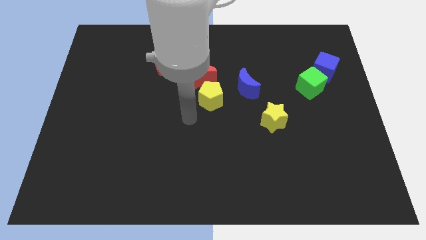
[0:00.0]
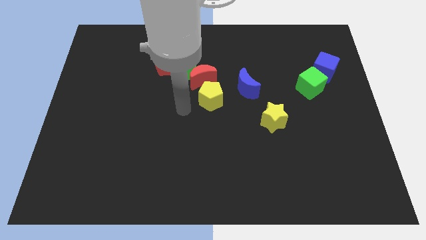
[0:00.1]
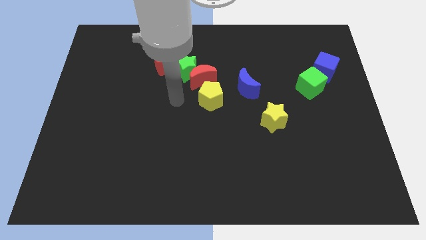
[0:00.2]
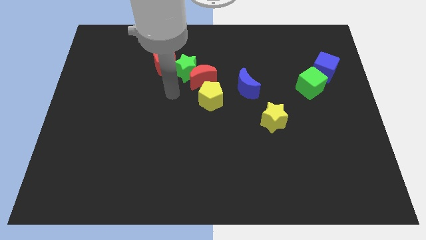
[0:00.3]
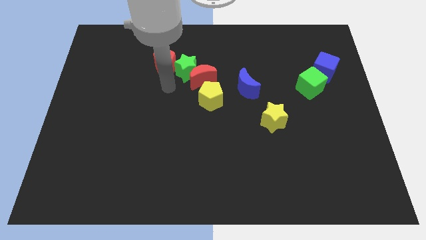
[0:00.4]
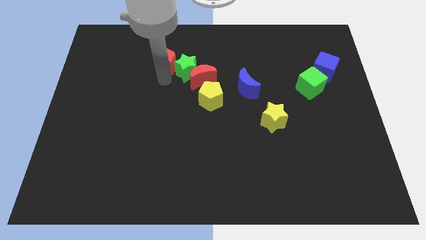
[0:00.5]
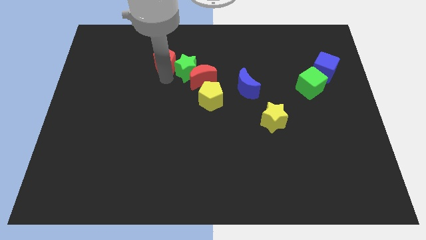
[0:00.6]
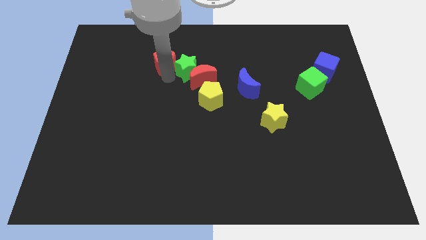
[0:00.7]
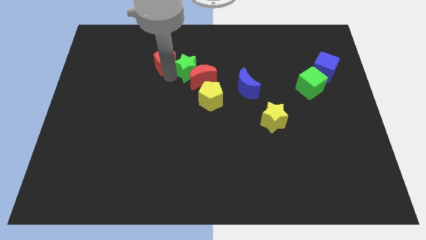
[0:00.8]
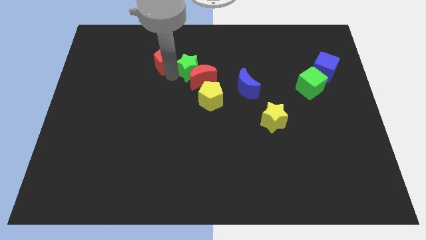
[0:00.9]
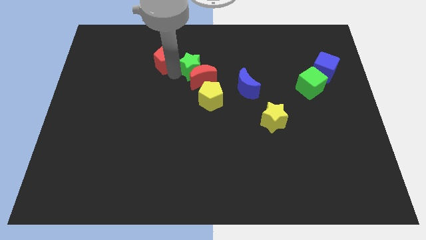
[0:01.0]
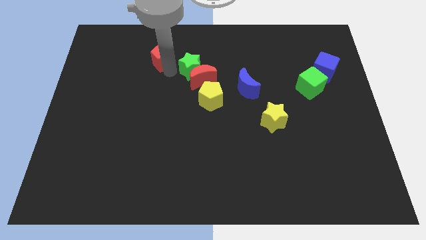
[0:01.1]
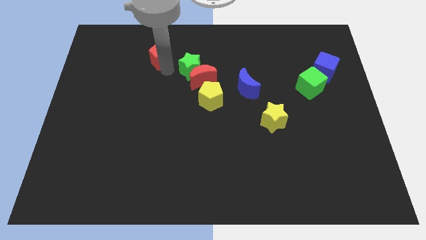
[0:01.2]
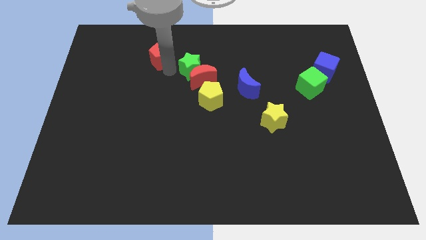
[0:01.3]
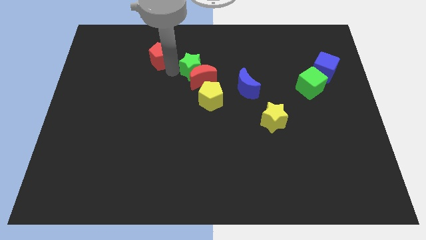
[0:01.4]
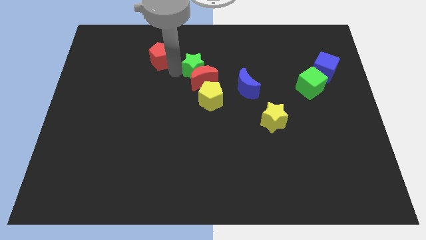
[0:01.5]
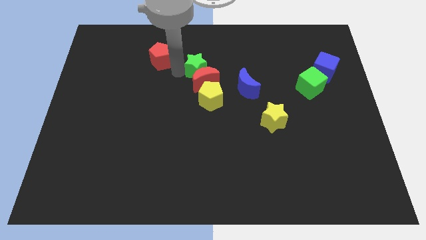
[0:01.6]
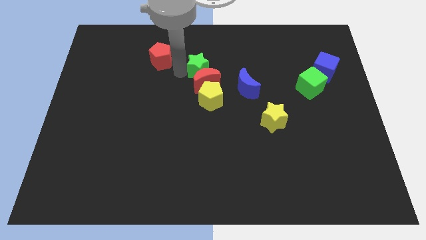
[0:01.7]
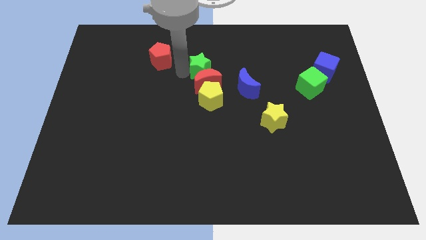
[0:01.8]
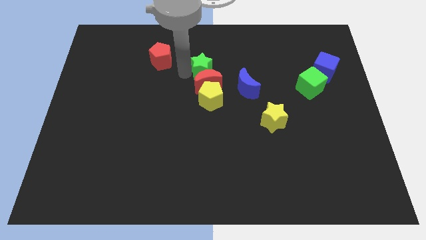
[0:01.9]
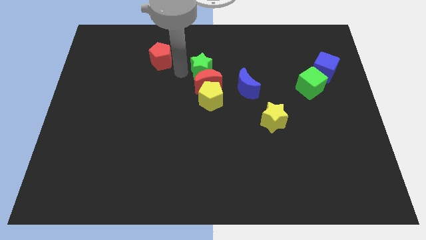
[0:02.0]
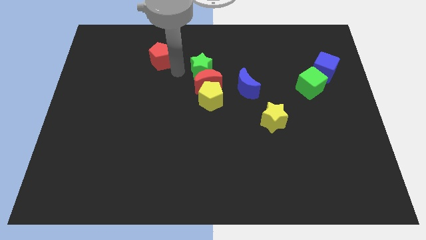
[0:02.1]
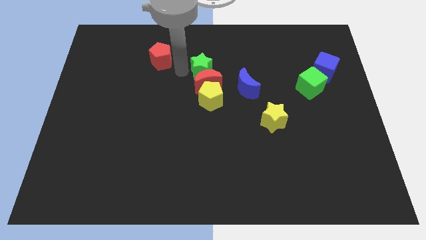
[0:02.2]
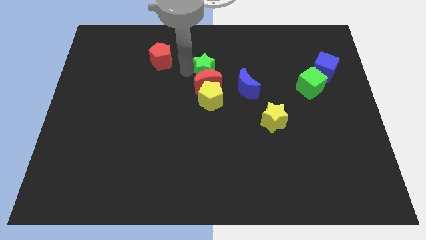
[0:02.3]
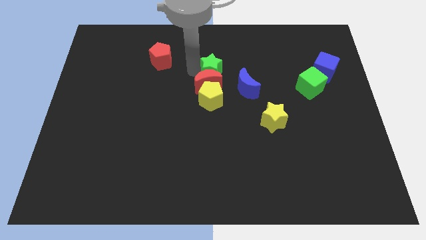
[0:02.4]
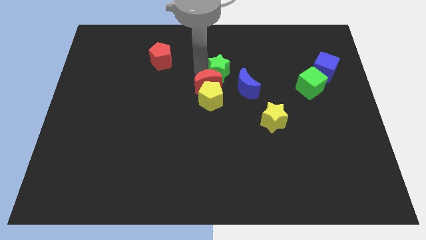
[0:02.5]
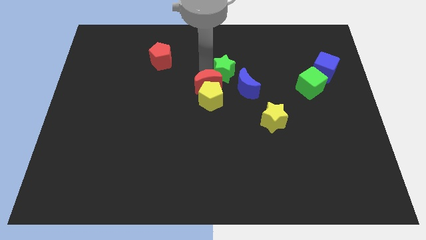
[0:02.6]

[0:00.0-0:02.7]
pull the green star apart from the red moon and red pentagon

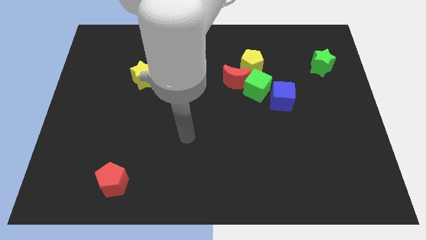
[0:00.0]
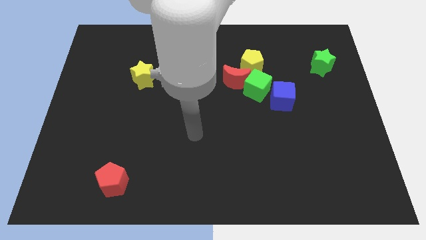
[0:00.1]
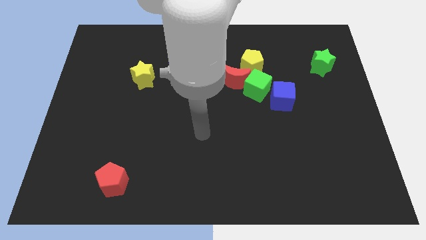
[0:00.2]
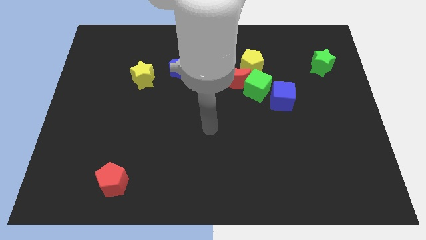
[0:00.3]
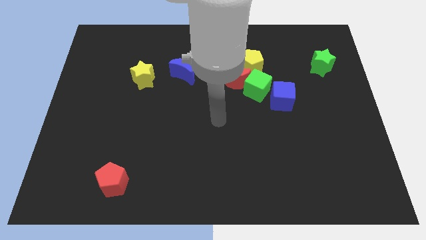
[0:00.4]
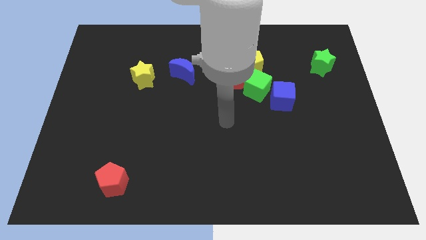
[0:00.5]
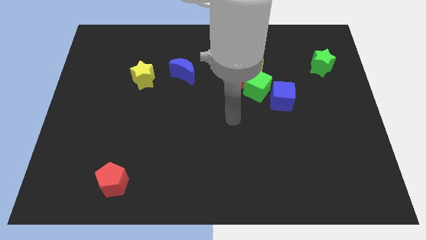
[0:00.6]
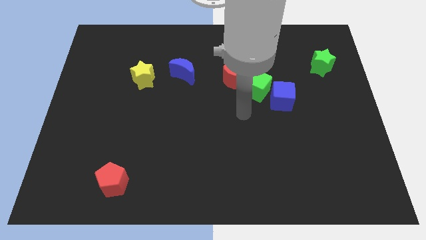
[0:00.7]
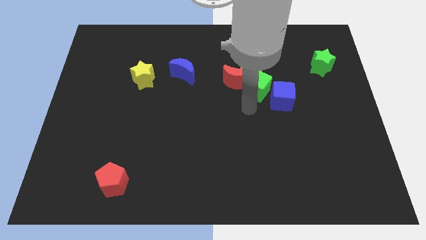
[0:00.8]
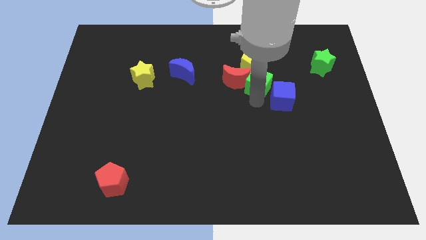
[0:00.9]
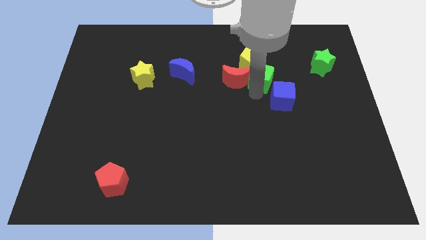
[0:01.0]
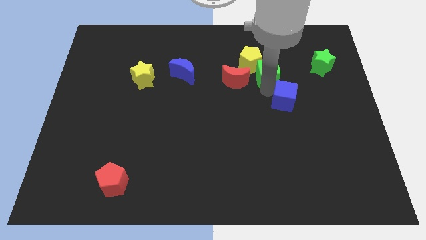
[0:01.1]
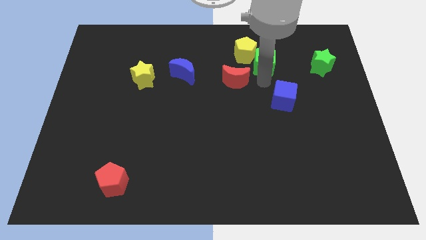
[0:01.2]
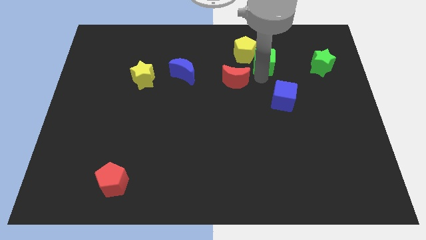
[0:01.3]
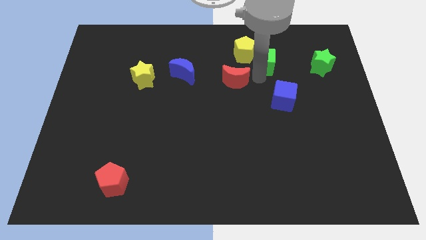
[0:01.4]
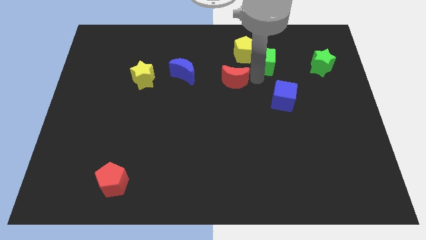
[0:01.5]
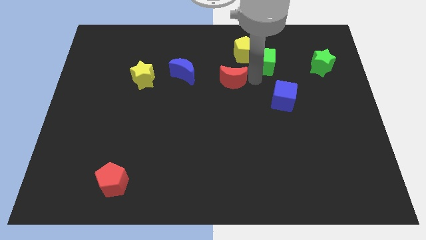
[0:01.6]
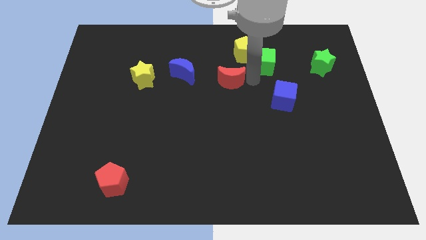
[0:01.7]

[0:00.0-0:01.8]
separate the red moon from the green cube and yellow pentagon

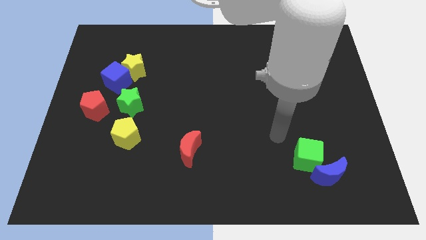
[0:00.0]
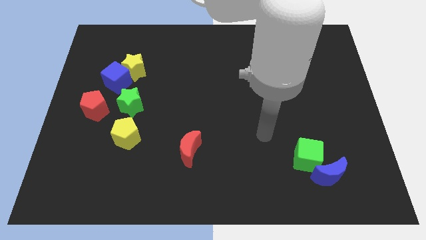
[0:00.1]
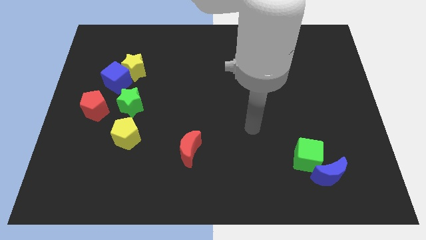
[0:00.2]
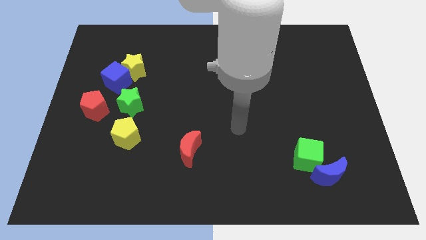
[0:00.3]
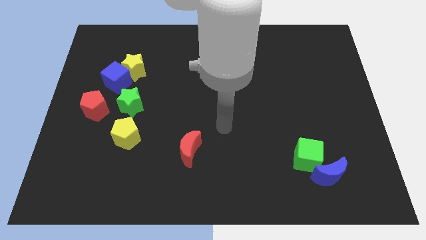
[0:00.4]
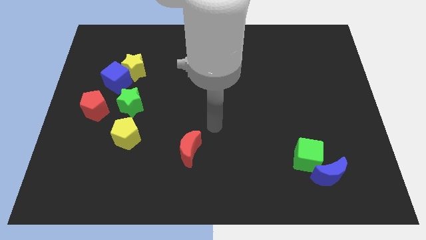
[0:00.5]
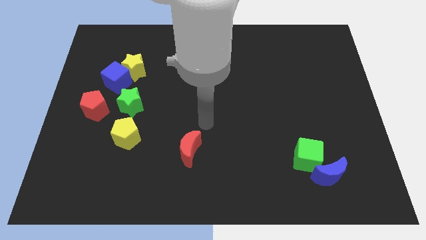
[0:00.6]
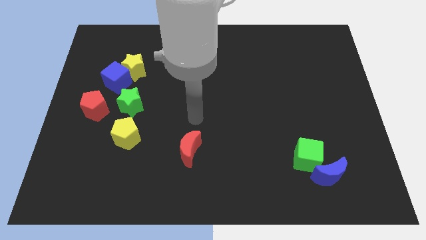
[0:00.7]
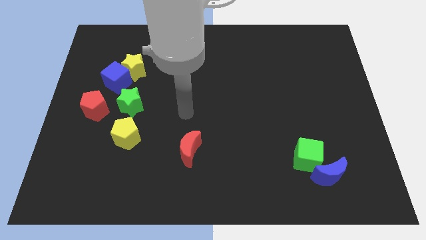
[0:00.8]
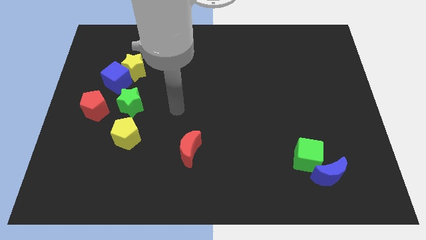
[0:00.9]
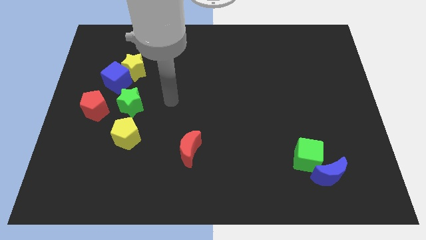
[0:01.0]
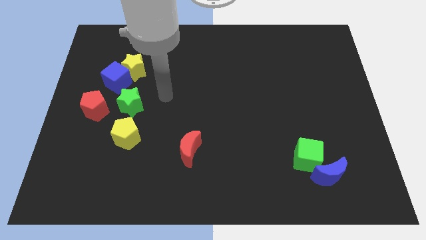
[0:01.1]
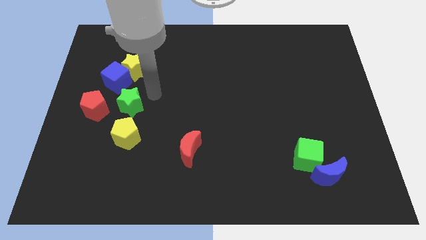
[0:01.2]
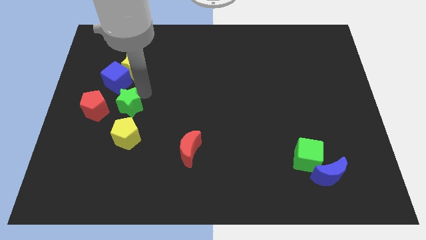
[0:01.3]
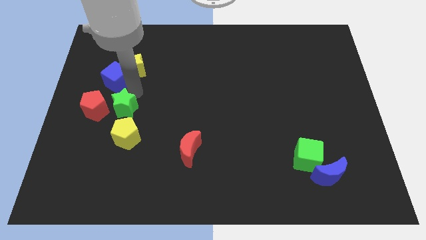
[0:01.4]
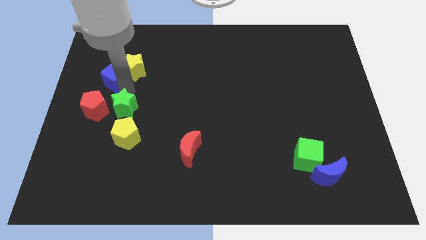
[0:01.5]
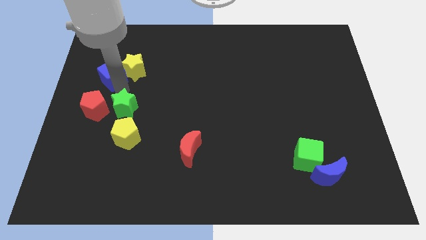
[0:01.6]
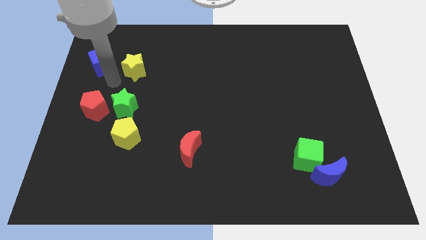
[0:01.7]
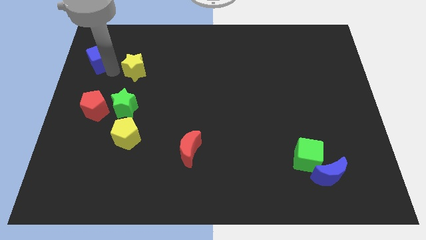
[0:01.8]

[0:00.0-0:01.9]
move the yellow star away from the blue cube

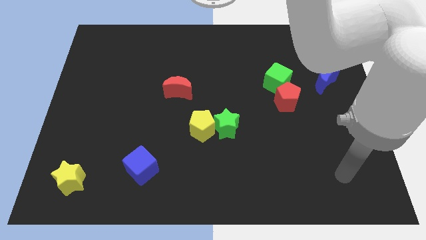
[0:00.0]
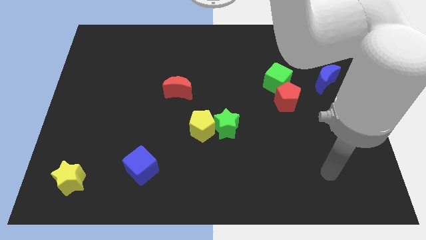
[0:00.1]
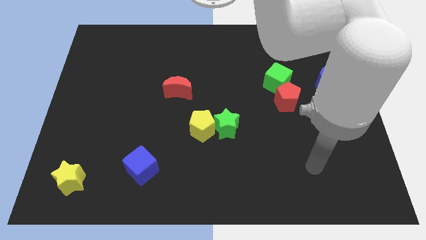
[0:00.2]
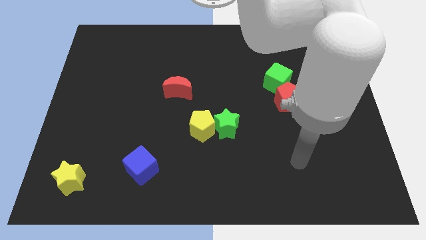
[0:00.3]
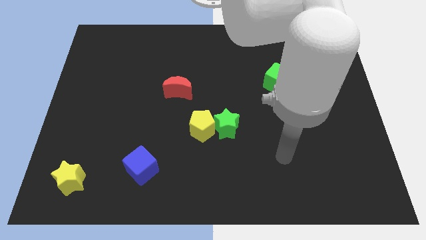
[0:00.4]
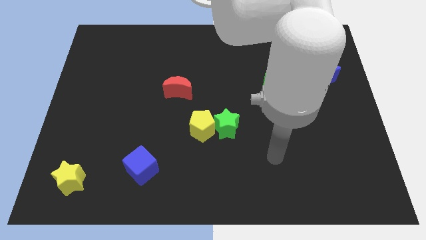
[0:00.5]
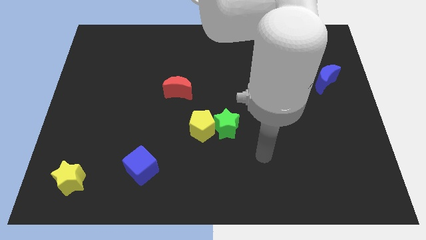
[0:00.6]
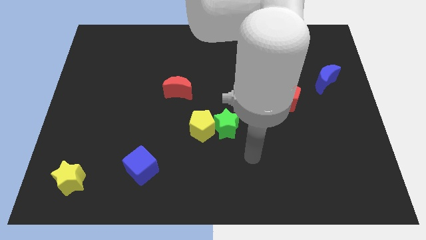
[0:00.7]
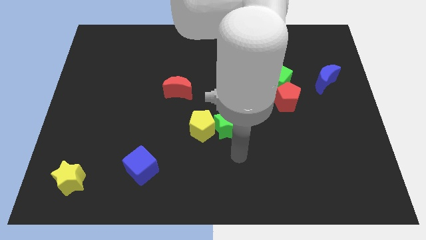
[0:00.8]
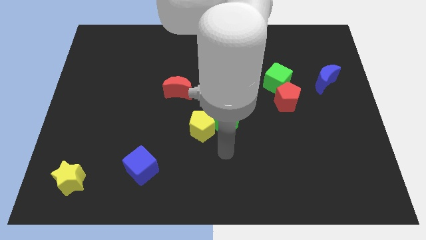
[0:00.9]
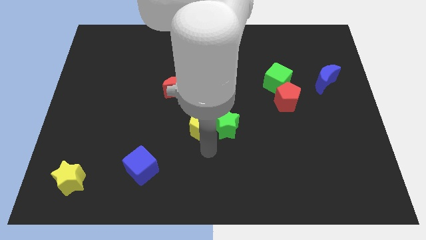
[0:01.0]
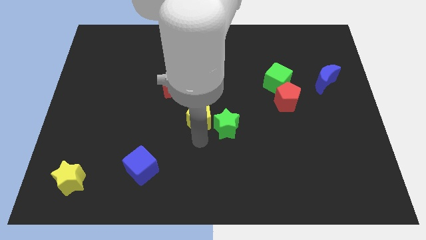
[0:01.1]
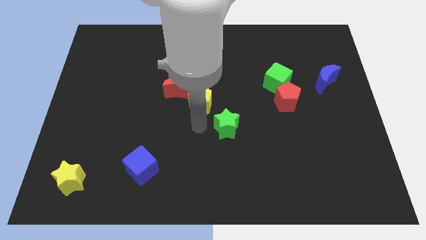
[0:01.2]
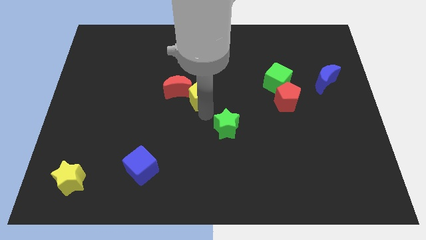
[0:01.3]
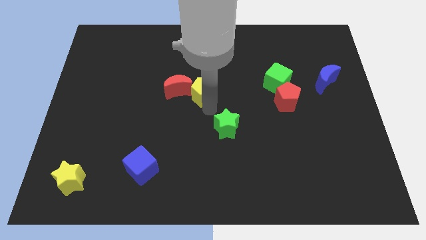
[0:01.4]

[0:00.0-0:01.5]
pull the green star apart from the yellow pentagon

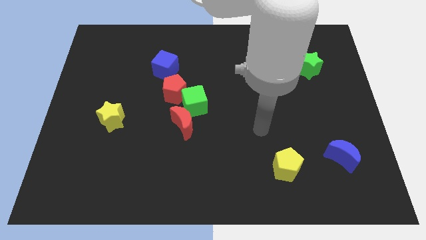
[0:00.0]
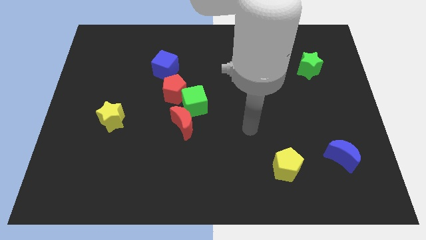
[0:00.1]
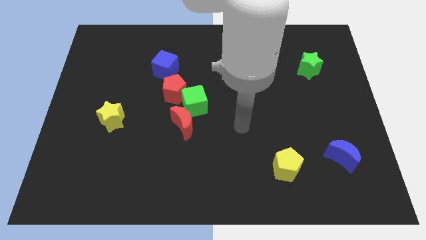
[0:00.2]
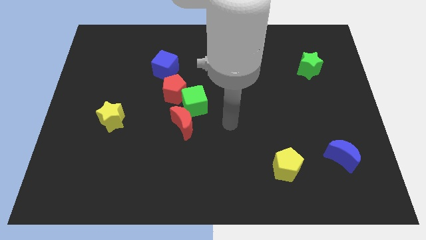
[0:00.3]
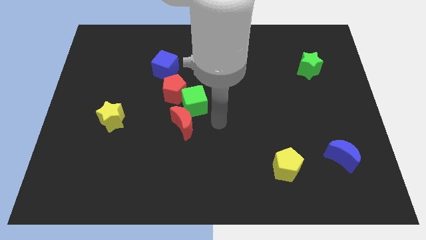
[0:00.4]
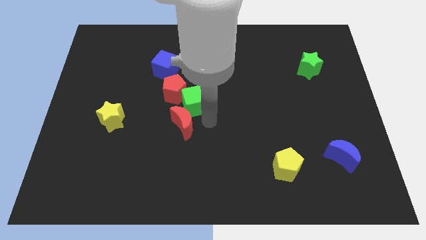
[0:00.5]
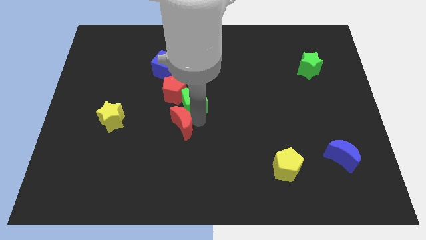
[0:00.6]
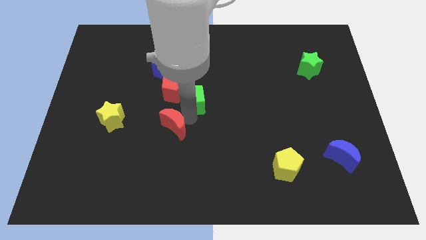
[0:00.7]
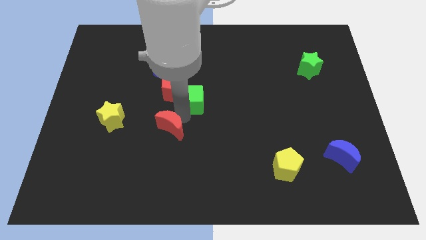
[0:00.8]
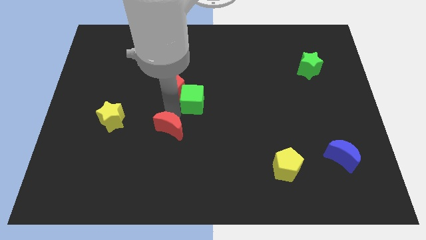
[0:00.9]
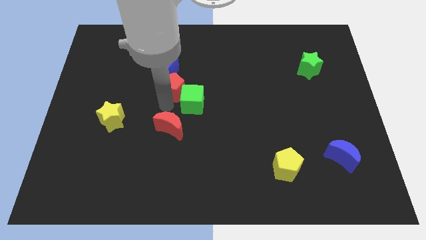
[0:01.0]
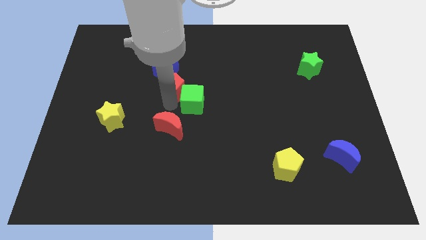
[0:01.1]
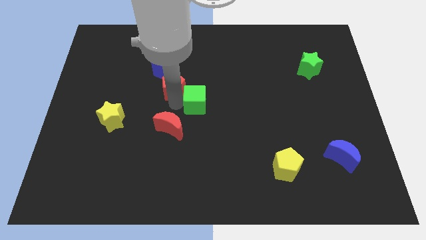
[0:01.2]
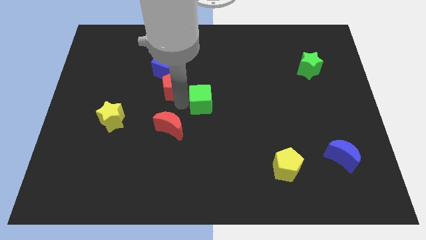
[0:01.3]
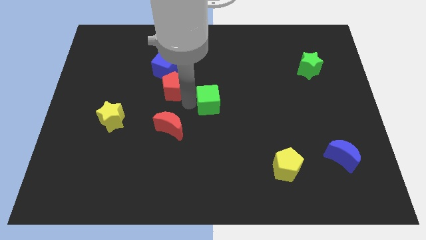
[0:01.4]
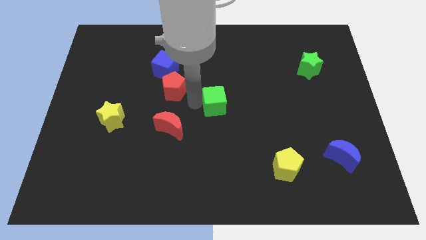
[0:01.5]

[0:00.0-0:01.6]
move the green cube away from the red pentagon and red moon
